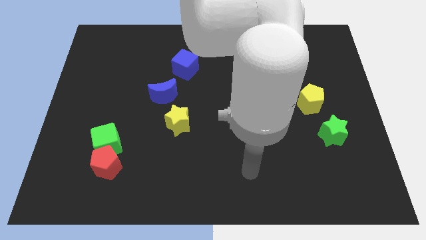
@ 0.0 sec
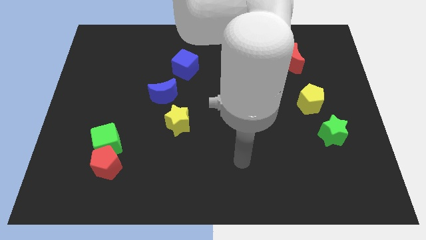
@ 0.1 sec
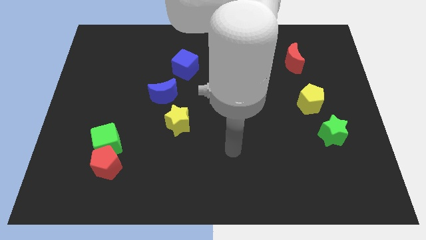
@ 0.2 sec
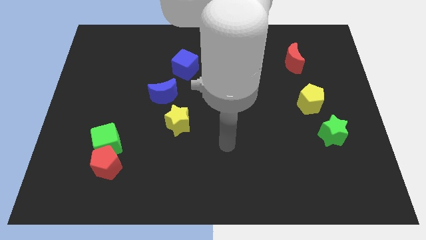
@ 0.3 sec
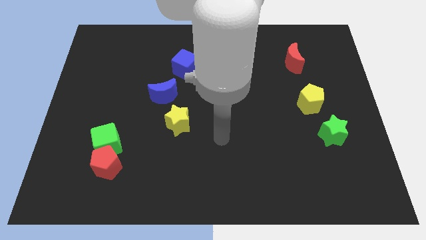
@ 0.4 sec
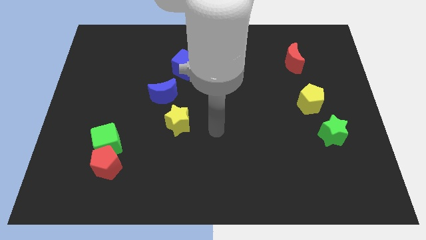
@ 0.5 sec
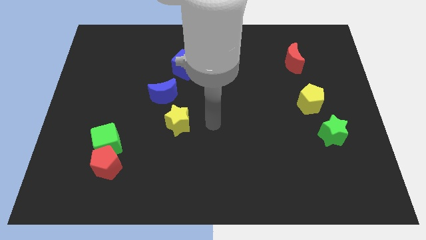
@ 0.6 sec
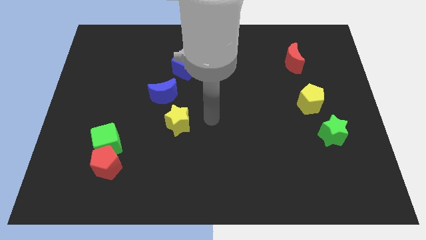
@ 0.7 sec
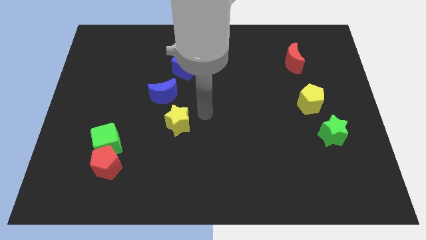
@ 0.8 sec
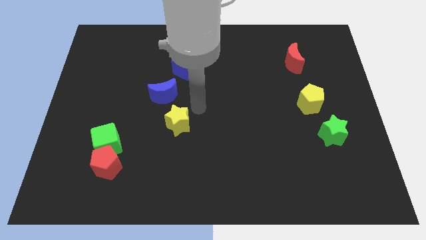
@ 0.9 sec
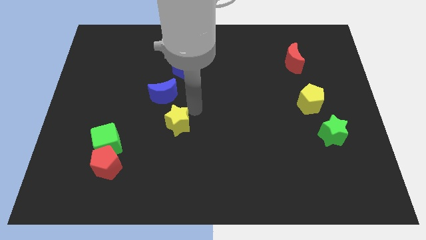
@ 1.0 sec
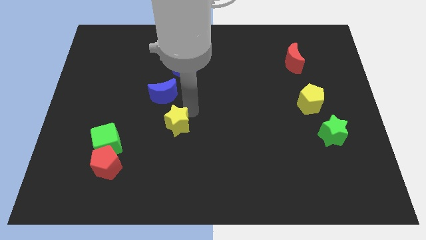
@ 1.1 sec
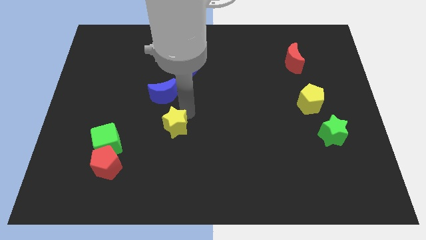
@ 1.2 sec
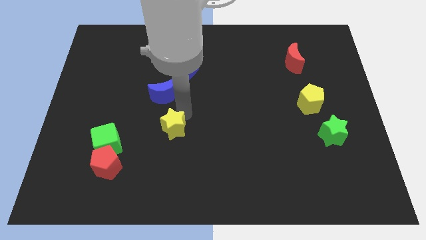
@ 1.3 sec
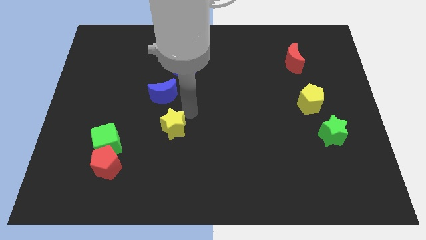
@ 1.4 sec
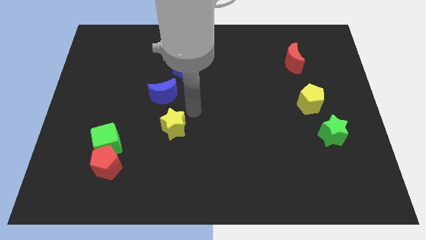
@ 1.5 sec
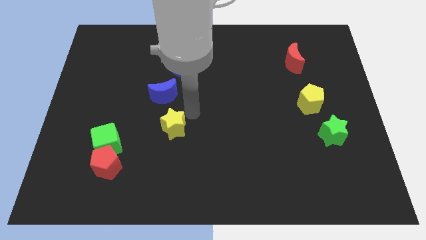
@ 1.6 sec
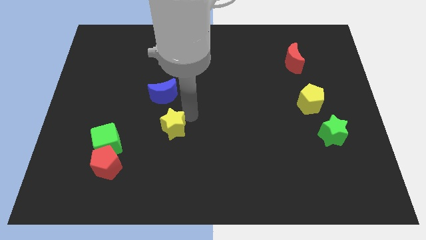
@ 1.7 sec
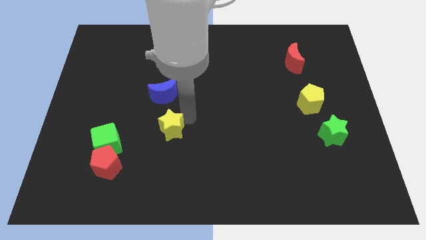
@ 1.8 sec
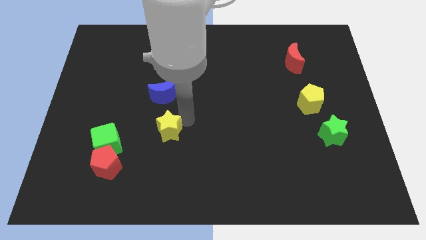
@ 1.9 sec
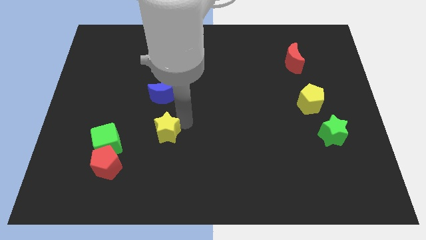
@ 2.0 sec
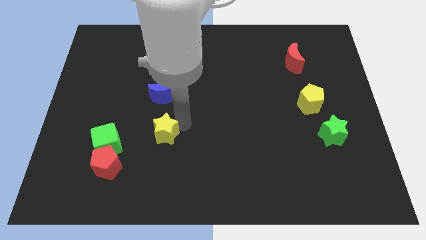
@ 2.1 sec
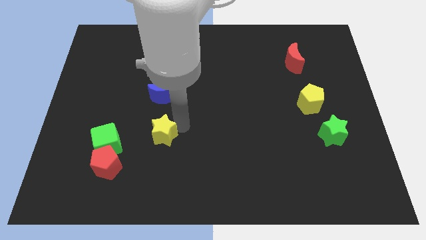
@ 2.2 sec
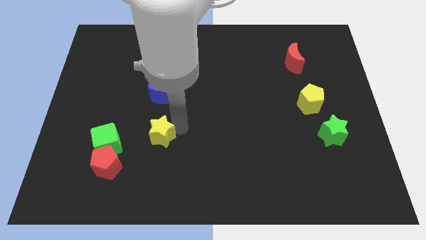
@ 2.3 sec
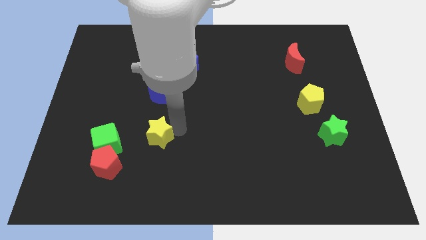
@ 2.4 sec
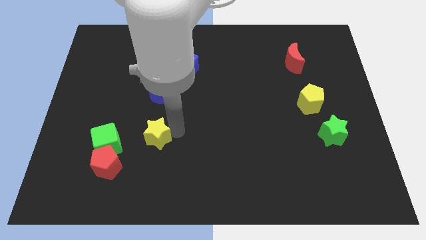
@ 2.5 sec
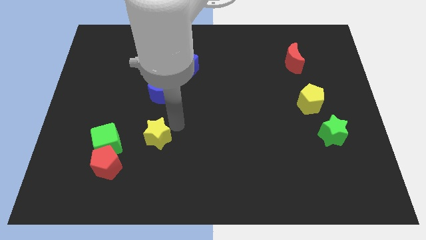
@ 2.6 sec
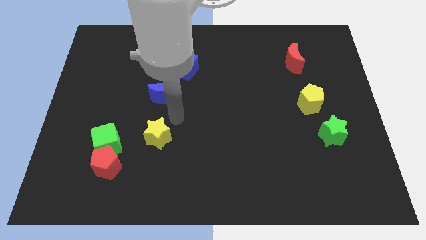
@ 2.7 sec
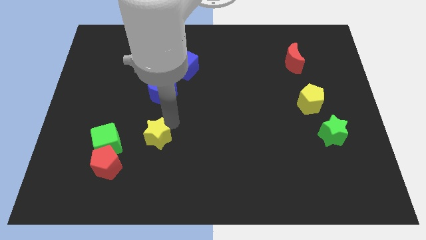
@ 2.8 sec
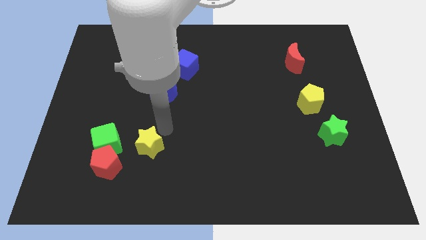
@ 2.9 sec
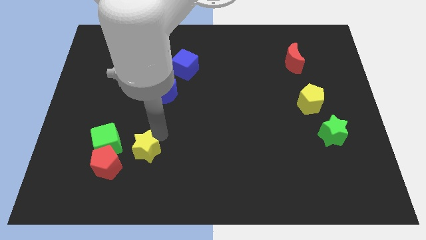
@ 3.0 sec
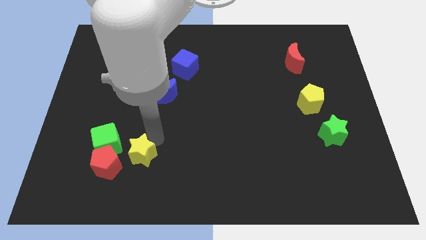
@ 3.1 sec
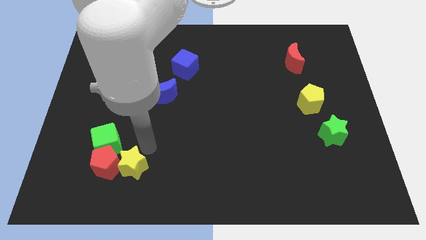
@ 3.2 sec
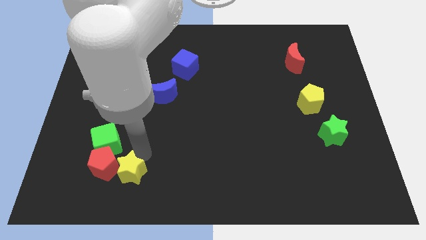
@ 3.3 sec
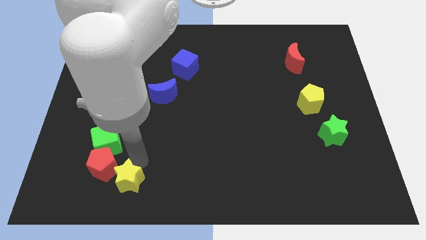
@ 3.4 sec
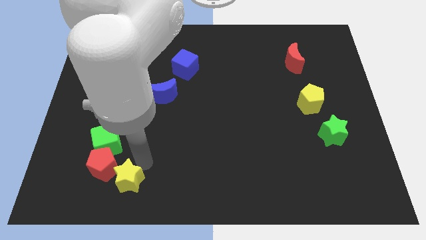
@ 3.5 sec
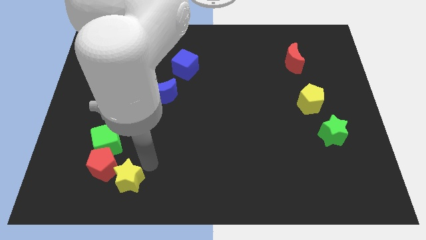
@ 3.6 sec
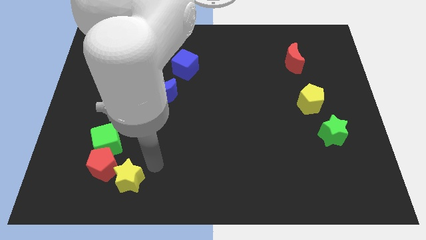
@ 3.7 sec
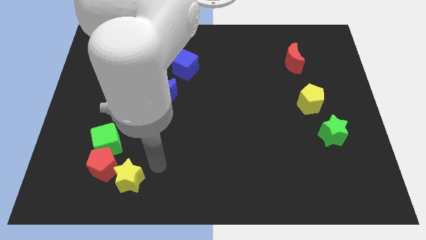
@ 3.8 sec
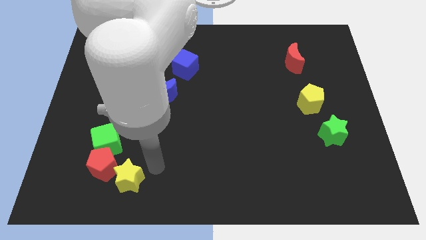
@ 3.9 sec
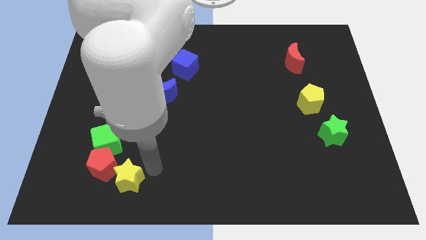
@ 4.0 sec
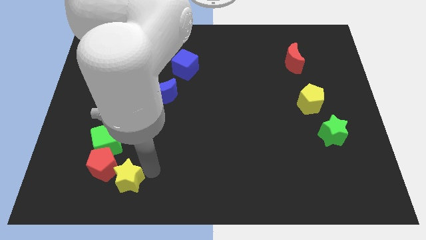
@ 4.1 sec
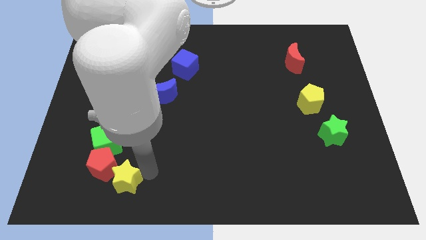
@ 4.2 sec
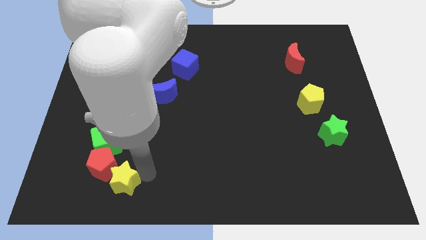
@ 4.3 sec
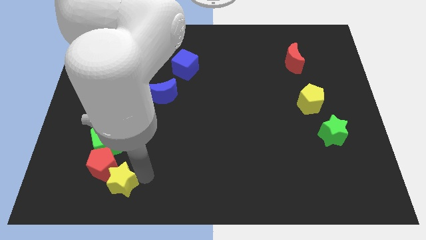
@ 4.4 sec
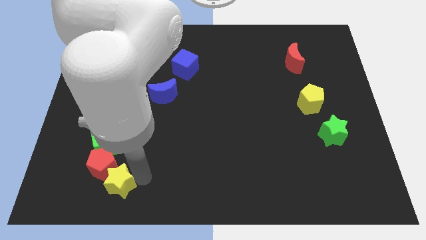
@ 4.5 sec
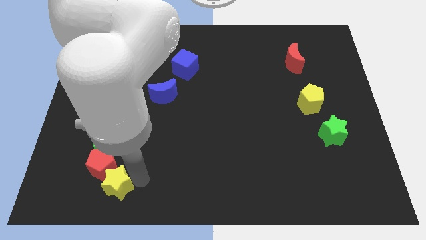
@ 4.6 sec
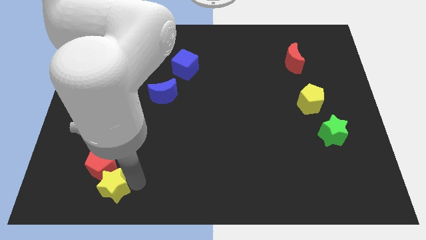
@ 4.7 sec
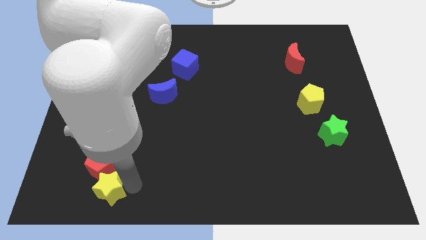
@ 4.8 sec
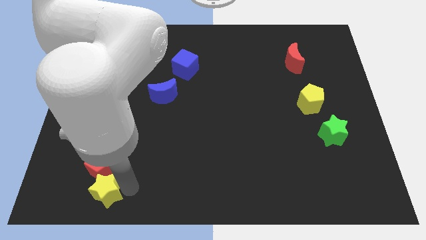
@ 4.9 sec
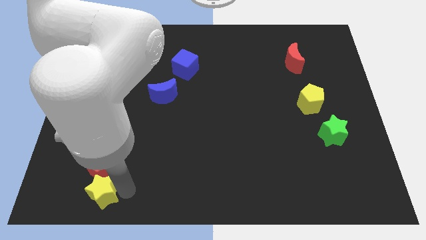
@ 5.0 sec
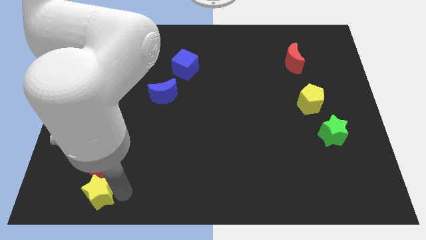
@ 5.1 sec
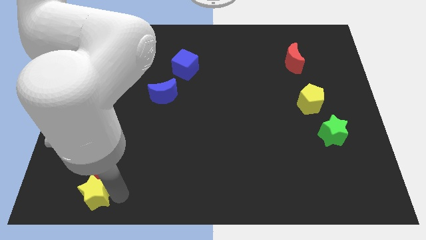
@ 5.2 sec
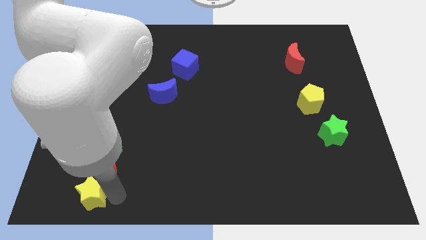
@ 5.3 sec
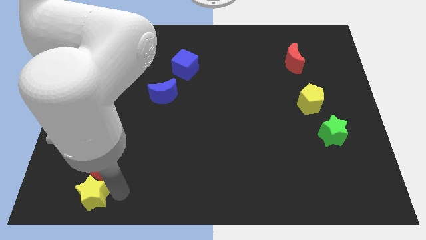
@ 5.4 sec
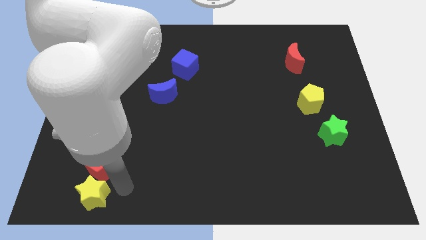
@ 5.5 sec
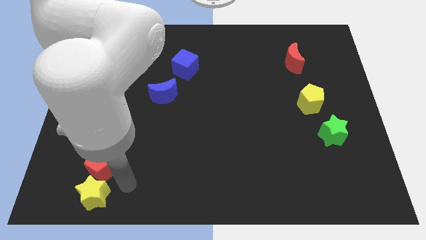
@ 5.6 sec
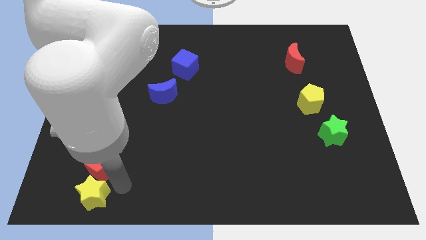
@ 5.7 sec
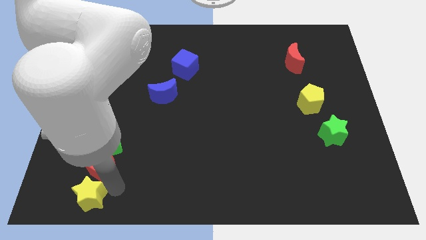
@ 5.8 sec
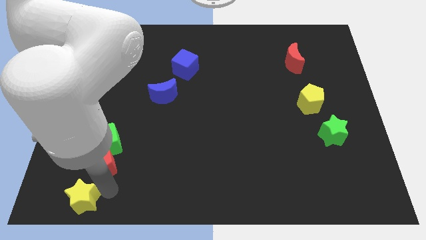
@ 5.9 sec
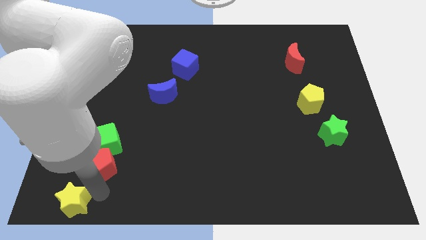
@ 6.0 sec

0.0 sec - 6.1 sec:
move the yellow star to the lower left corner
